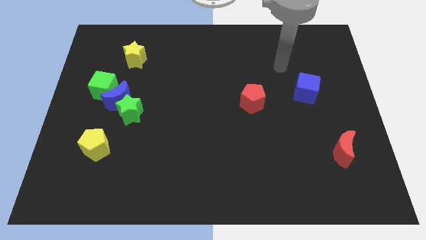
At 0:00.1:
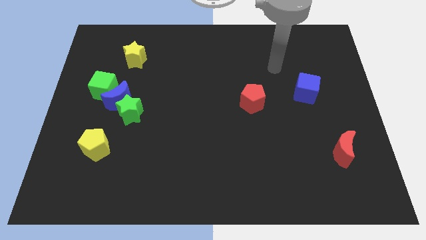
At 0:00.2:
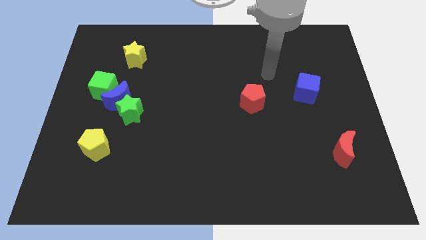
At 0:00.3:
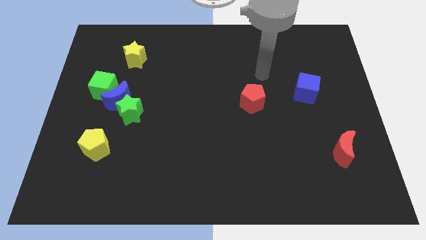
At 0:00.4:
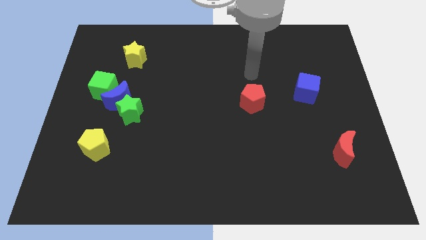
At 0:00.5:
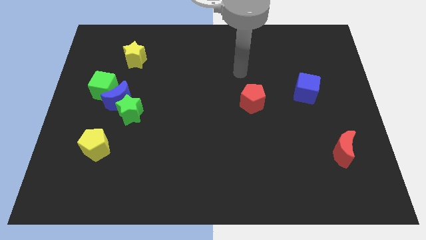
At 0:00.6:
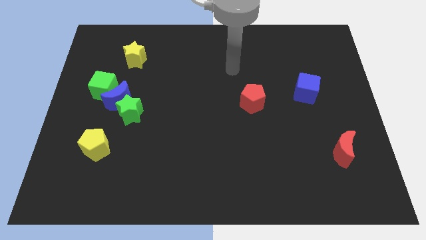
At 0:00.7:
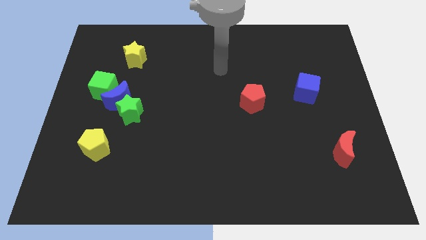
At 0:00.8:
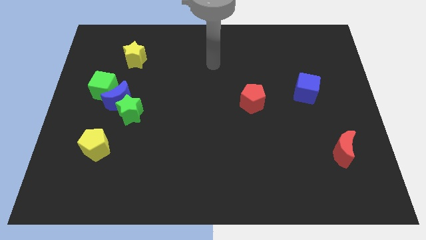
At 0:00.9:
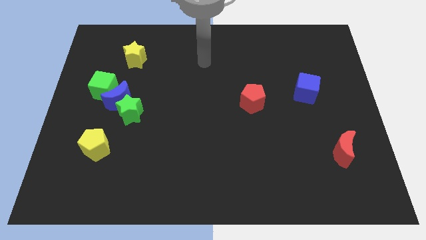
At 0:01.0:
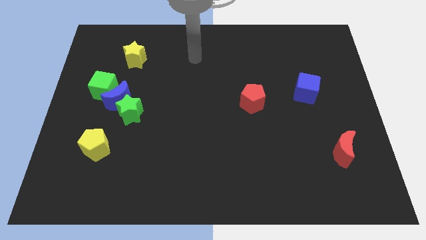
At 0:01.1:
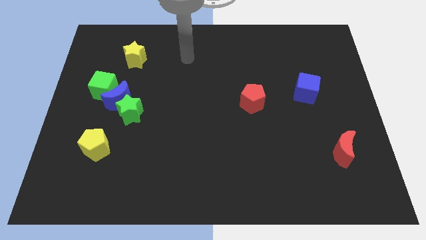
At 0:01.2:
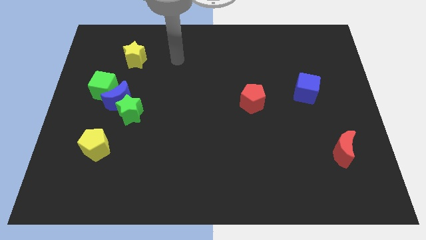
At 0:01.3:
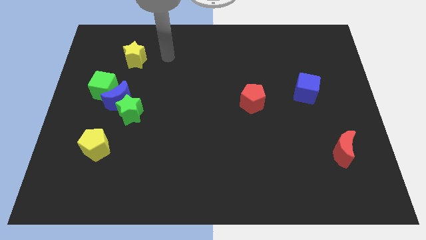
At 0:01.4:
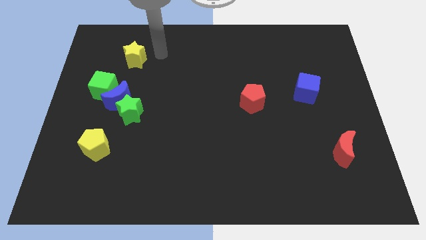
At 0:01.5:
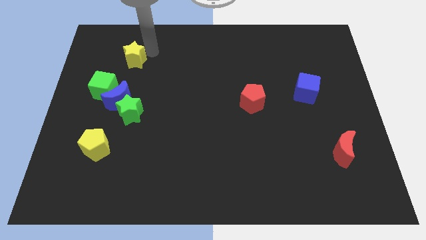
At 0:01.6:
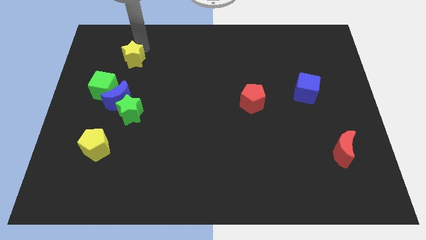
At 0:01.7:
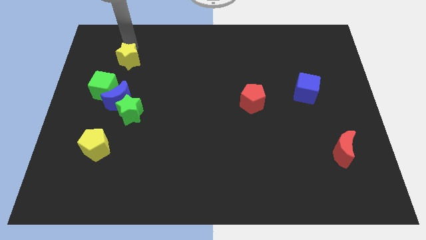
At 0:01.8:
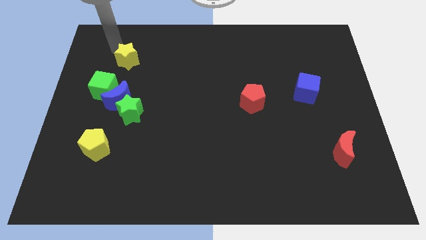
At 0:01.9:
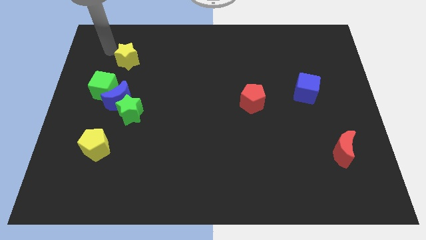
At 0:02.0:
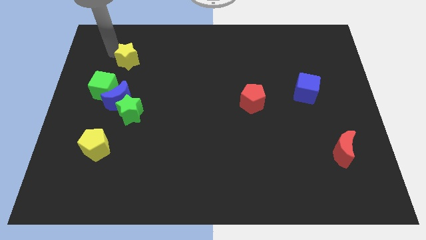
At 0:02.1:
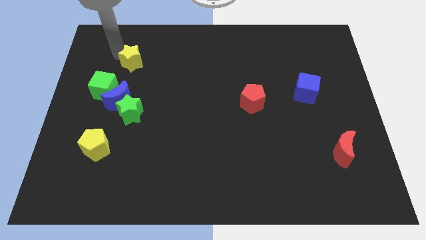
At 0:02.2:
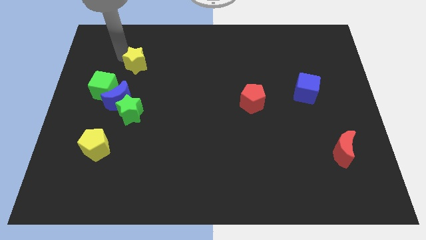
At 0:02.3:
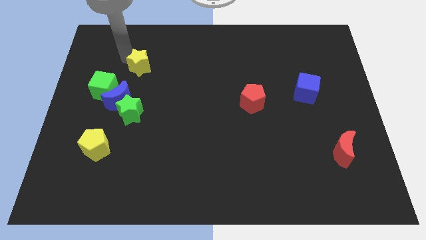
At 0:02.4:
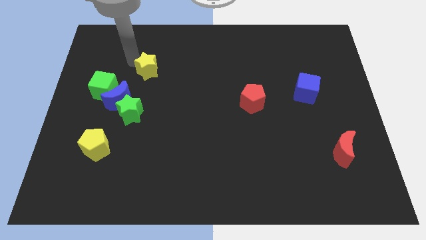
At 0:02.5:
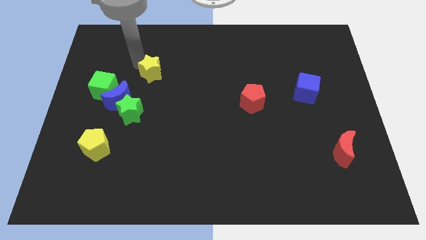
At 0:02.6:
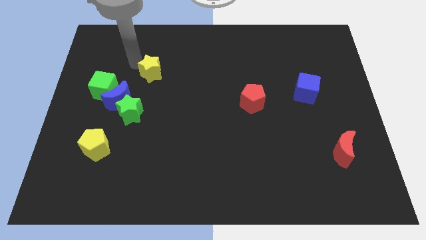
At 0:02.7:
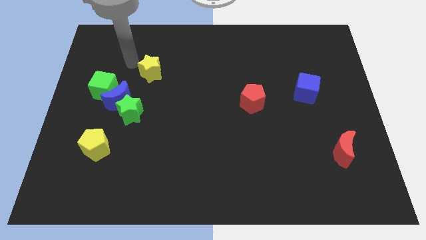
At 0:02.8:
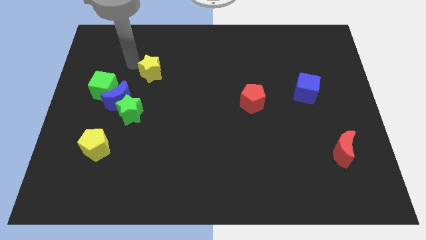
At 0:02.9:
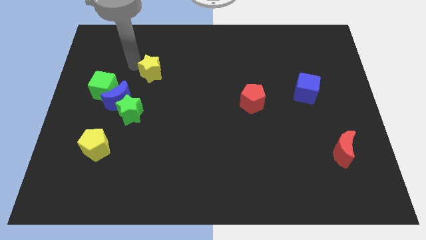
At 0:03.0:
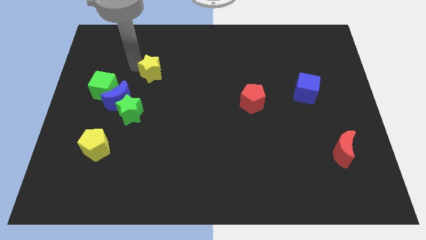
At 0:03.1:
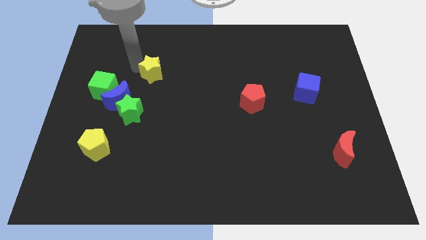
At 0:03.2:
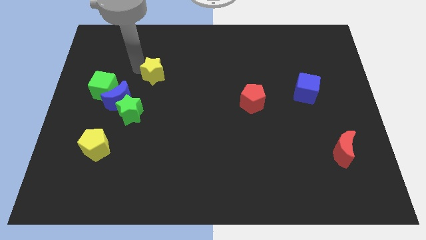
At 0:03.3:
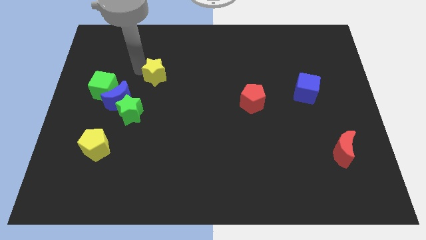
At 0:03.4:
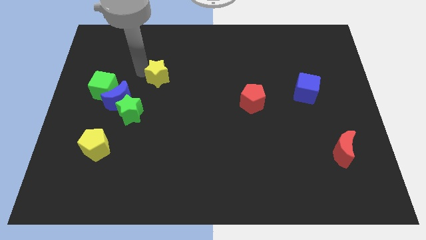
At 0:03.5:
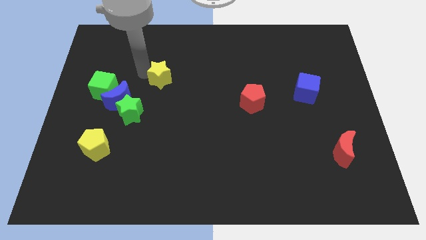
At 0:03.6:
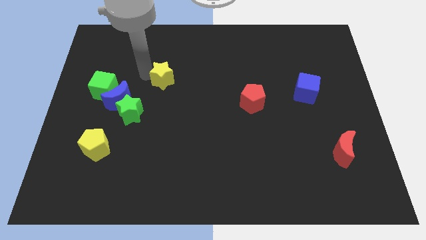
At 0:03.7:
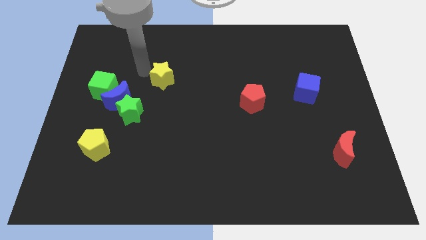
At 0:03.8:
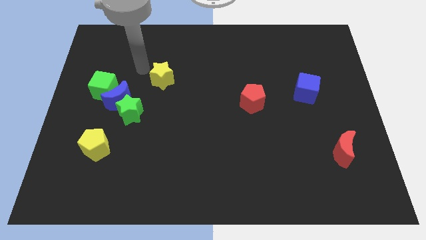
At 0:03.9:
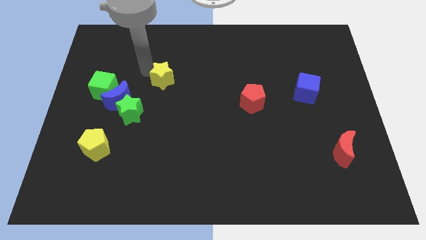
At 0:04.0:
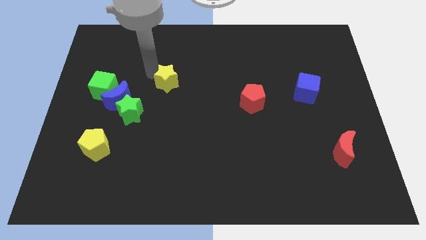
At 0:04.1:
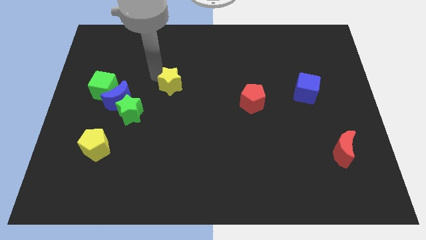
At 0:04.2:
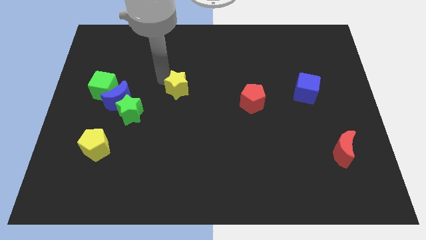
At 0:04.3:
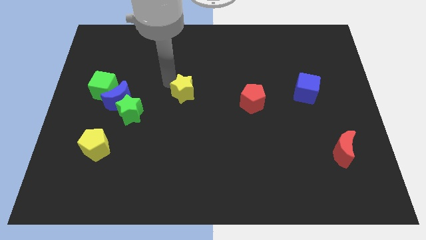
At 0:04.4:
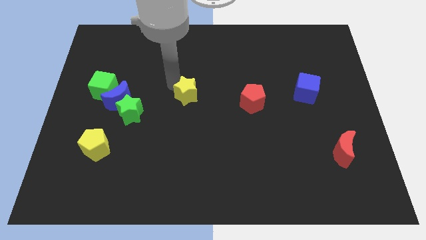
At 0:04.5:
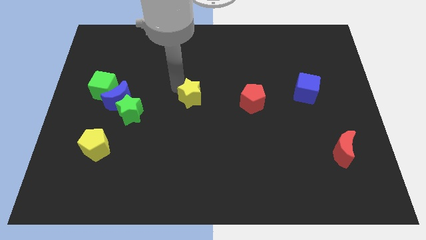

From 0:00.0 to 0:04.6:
move the yellow star downwards and to the right

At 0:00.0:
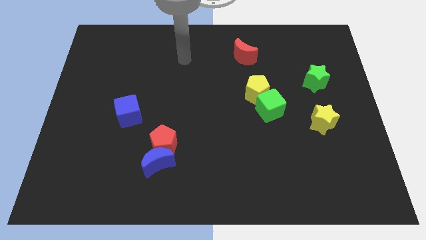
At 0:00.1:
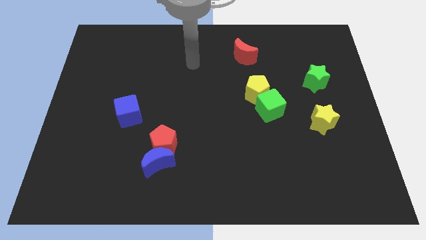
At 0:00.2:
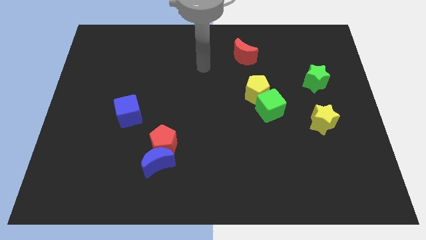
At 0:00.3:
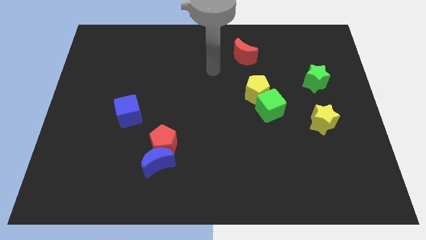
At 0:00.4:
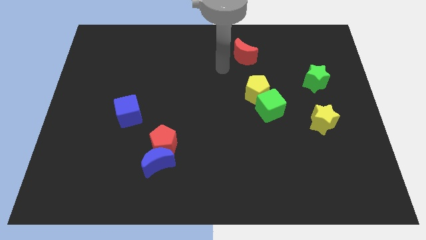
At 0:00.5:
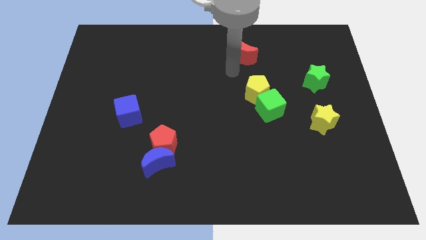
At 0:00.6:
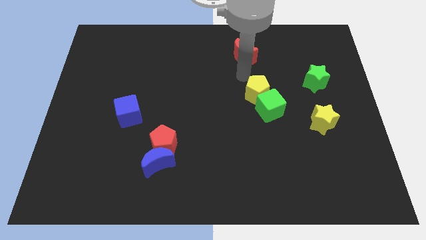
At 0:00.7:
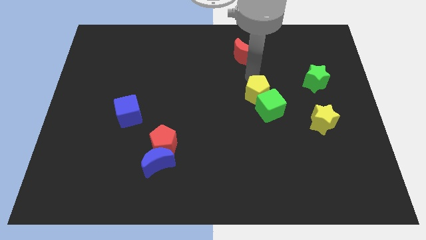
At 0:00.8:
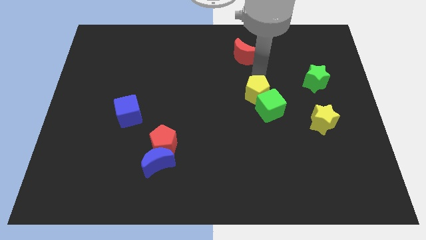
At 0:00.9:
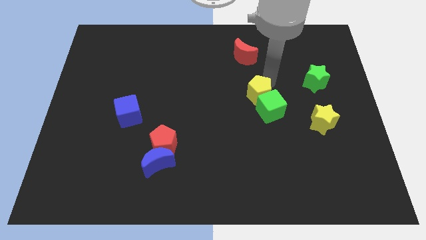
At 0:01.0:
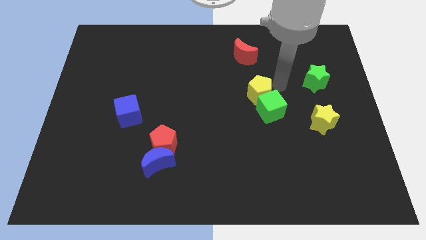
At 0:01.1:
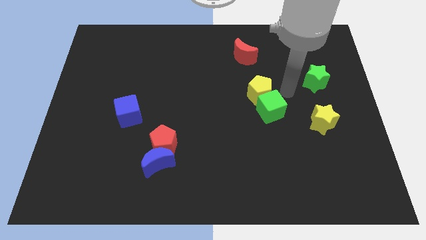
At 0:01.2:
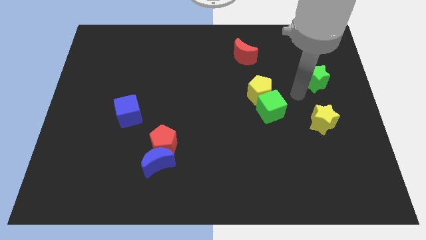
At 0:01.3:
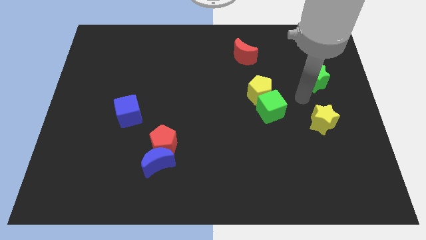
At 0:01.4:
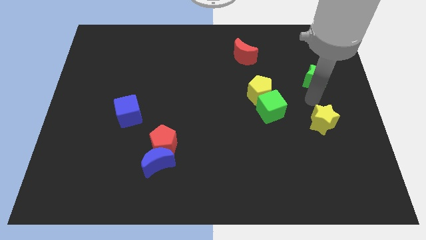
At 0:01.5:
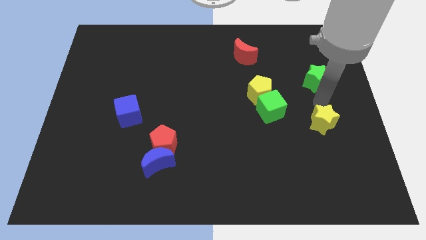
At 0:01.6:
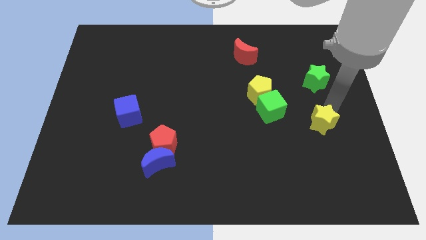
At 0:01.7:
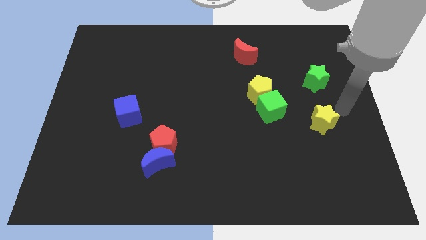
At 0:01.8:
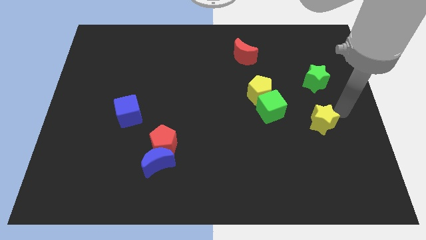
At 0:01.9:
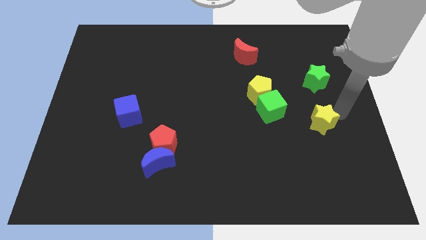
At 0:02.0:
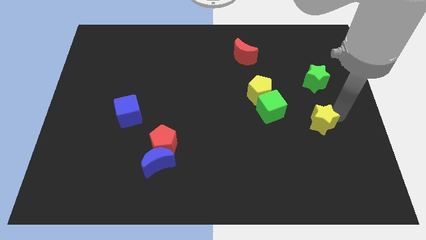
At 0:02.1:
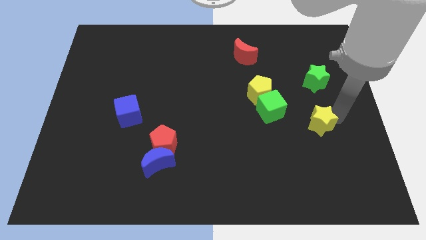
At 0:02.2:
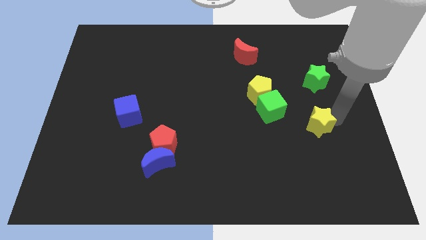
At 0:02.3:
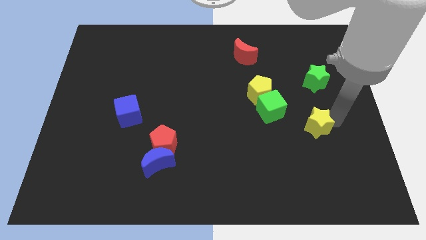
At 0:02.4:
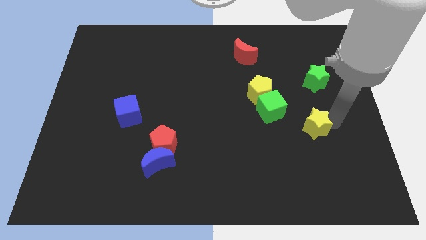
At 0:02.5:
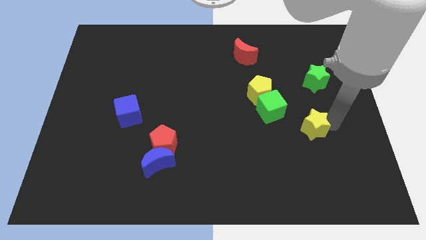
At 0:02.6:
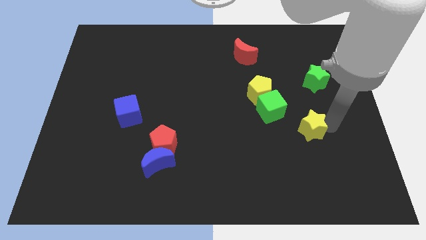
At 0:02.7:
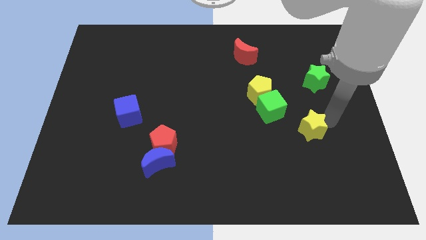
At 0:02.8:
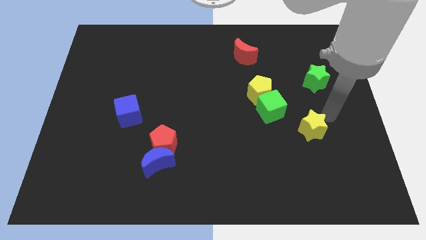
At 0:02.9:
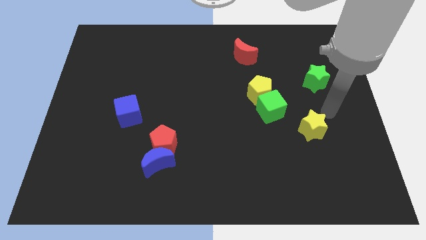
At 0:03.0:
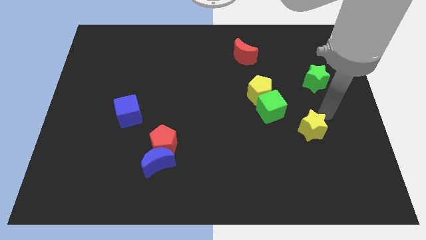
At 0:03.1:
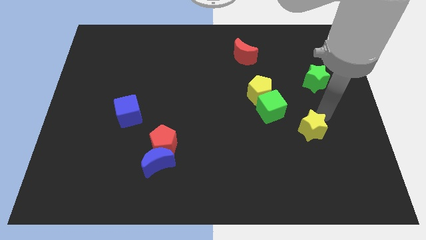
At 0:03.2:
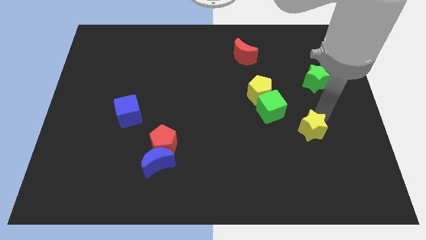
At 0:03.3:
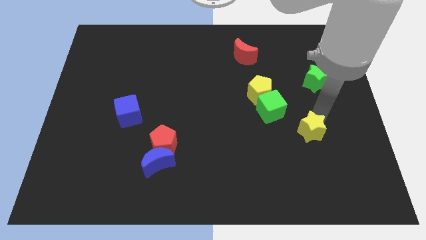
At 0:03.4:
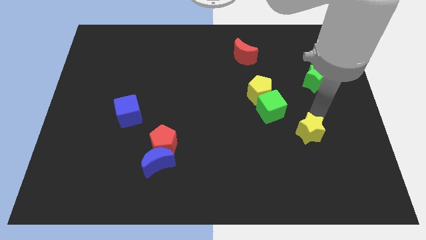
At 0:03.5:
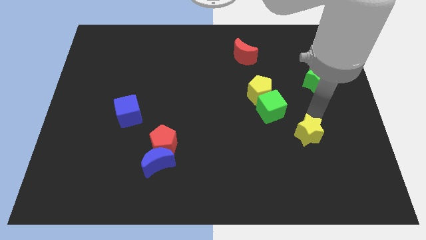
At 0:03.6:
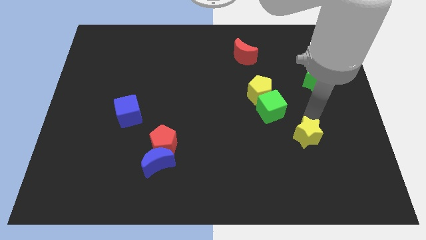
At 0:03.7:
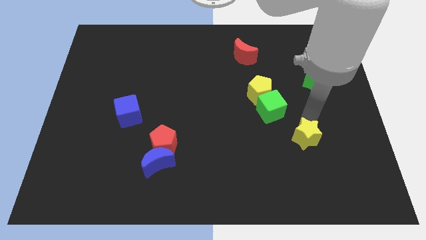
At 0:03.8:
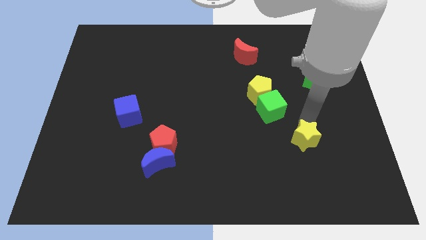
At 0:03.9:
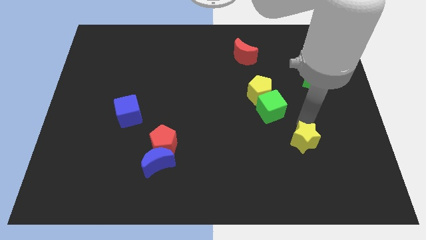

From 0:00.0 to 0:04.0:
slightly push the yellow star diagonally downwards and to the left
